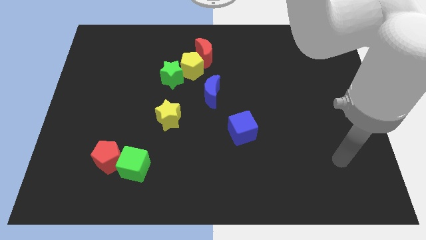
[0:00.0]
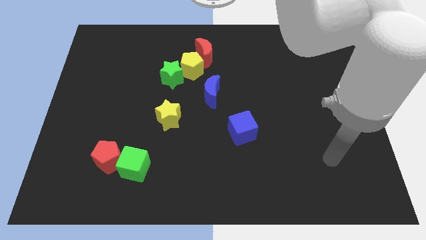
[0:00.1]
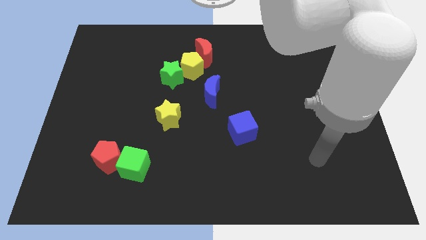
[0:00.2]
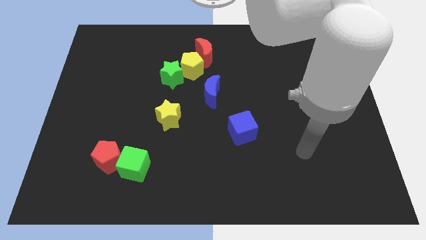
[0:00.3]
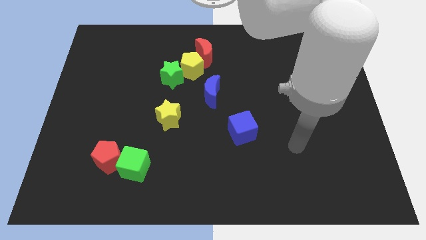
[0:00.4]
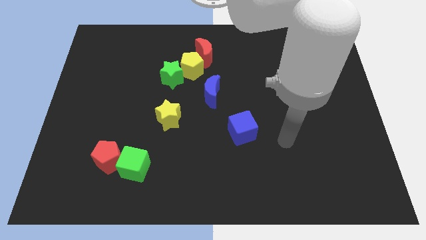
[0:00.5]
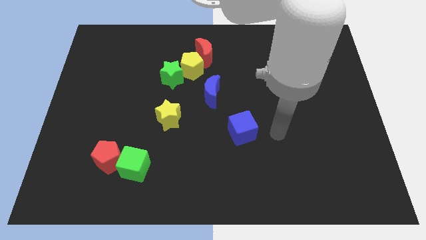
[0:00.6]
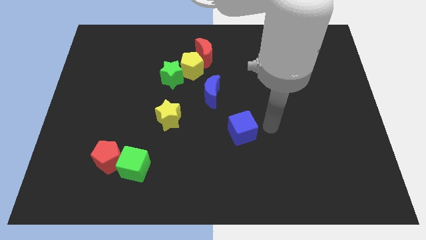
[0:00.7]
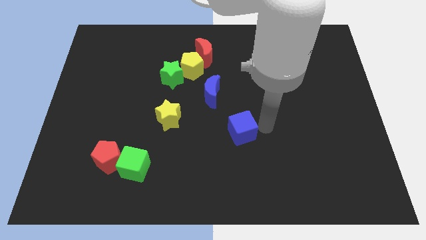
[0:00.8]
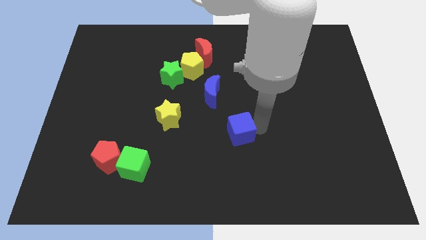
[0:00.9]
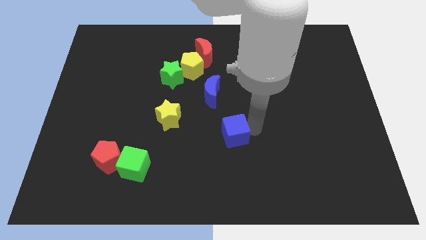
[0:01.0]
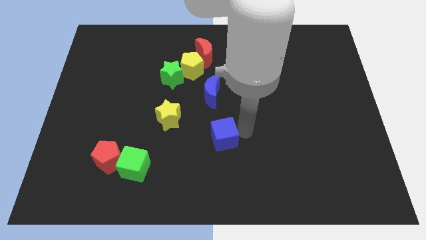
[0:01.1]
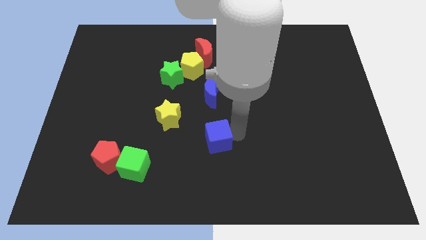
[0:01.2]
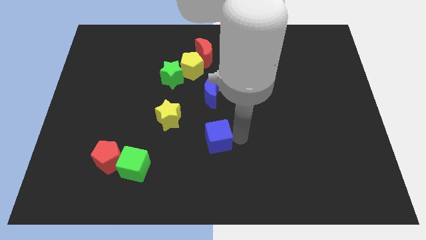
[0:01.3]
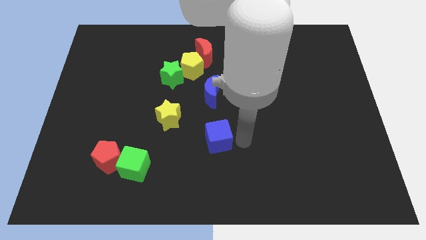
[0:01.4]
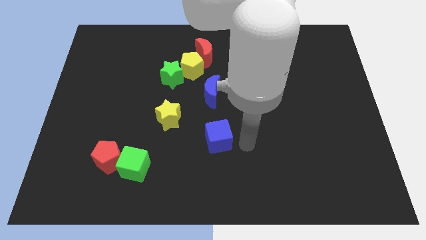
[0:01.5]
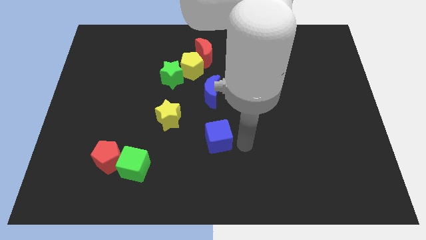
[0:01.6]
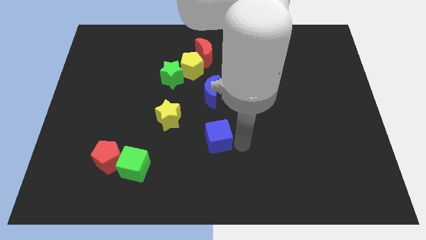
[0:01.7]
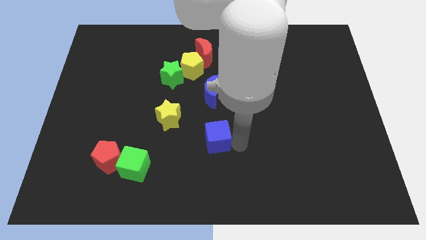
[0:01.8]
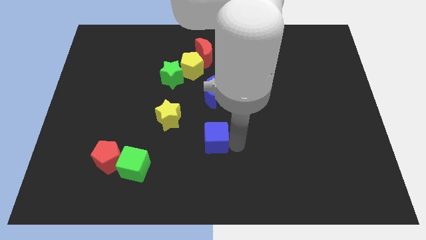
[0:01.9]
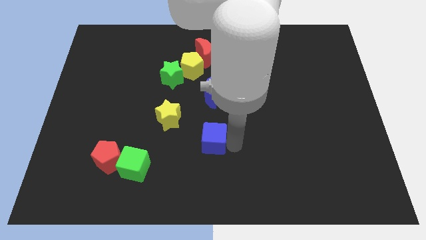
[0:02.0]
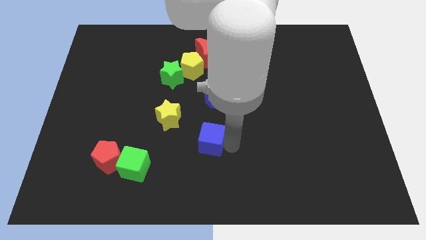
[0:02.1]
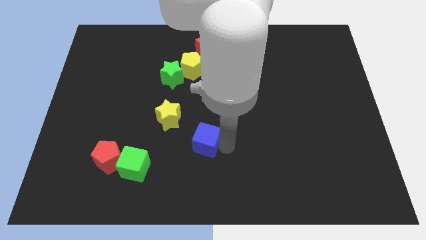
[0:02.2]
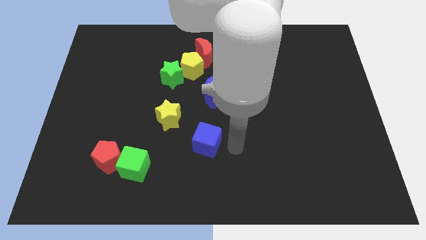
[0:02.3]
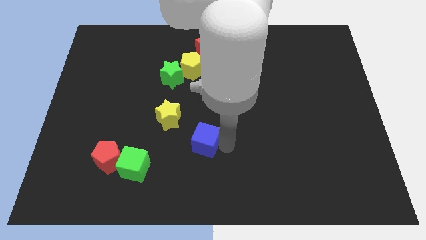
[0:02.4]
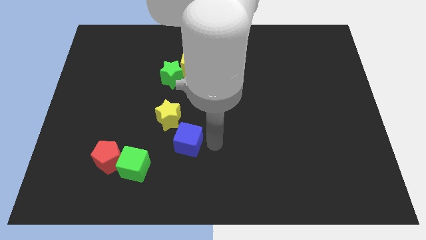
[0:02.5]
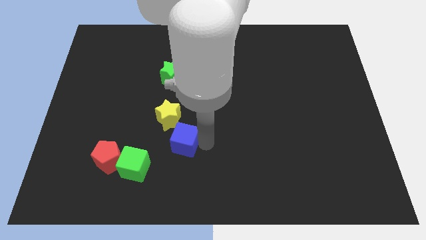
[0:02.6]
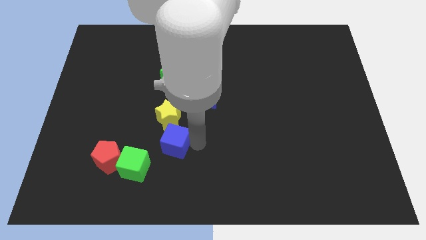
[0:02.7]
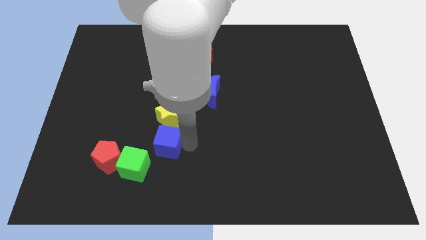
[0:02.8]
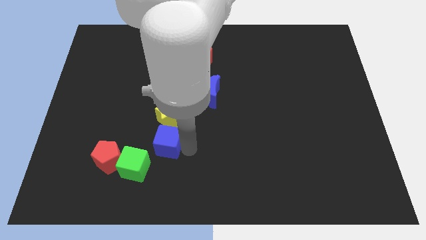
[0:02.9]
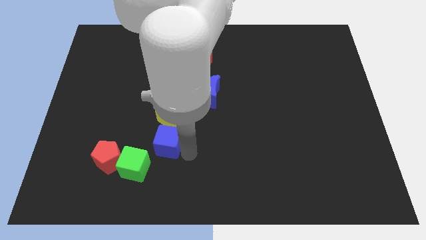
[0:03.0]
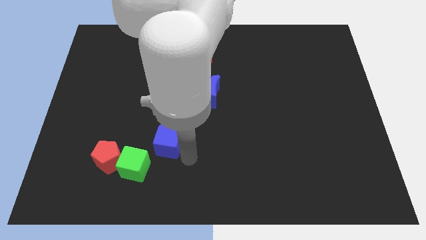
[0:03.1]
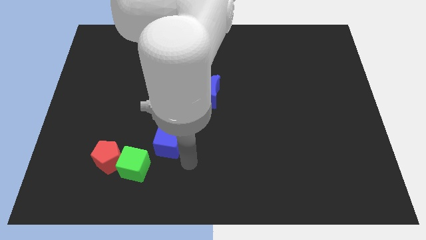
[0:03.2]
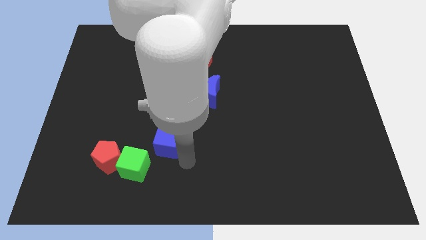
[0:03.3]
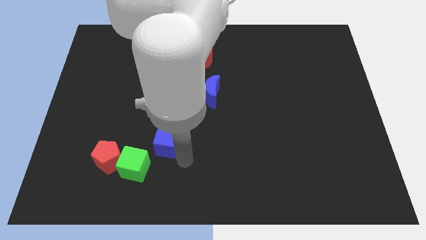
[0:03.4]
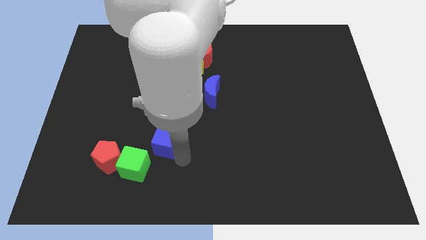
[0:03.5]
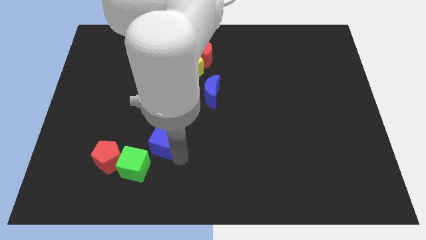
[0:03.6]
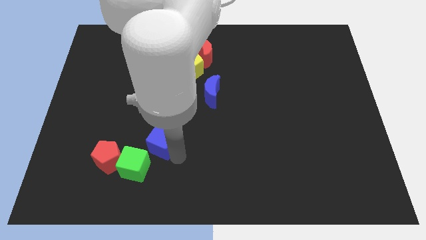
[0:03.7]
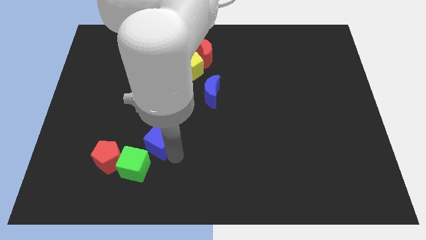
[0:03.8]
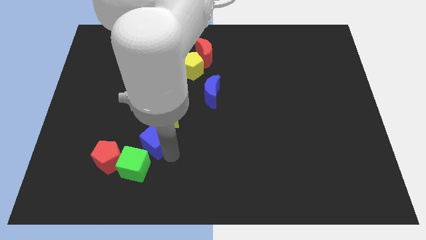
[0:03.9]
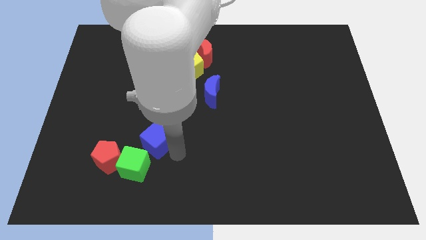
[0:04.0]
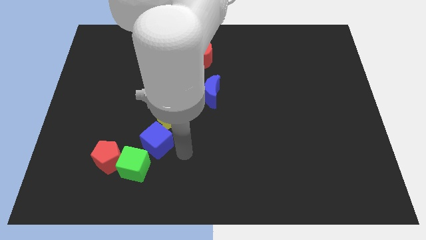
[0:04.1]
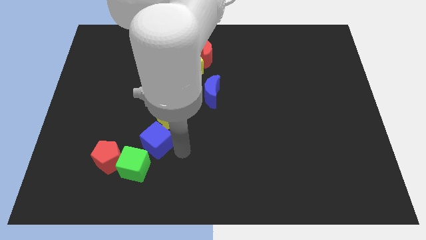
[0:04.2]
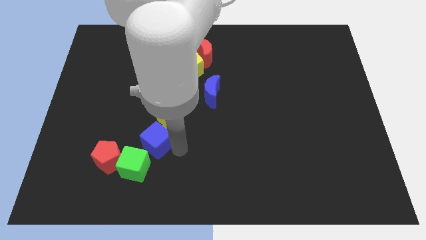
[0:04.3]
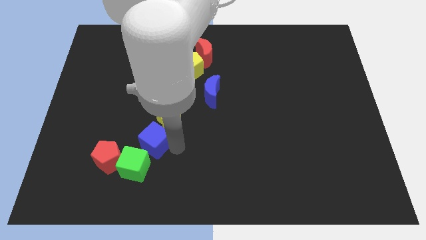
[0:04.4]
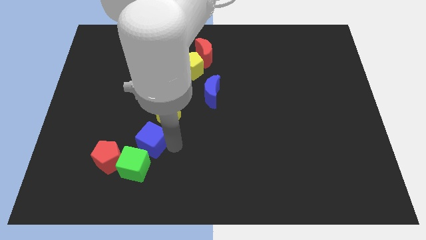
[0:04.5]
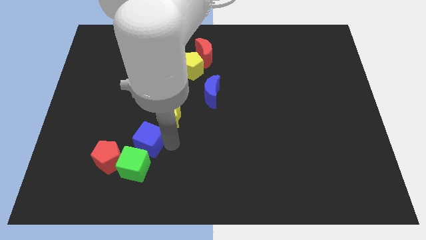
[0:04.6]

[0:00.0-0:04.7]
push the blue cube left

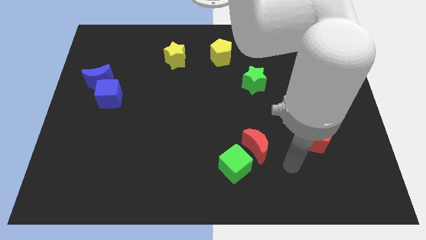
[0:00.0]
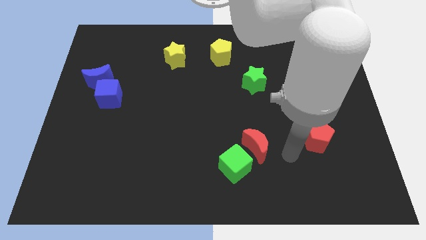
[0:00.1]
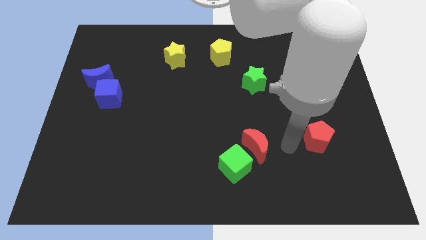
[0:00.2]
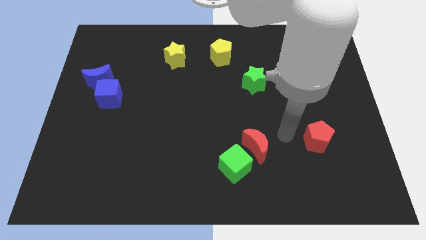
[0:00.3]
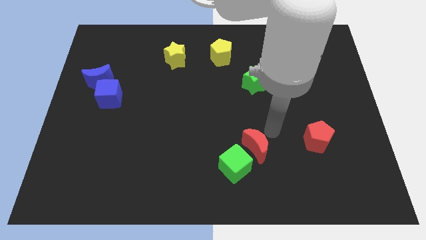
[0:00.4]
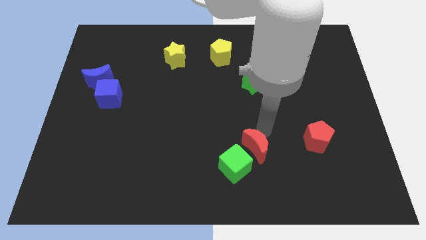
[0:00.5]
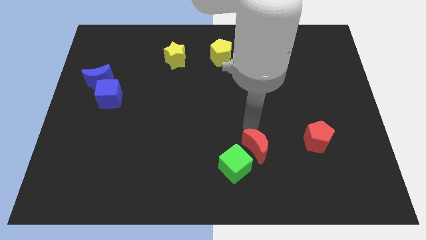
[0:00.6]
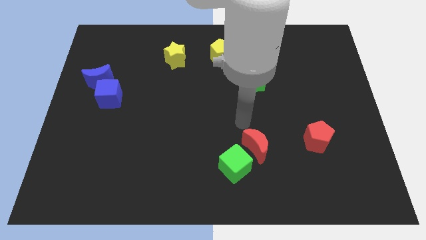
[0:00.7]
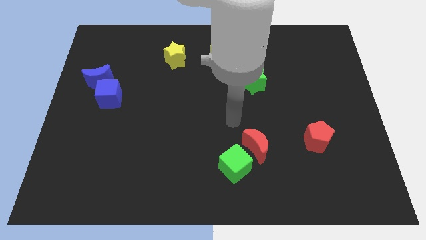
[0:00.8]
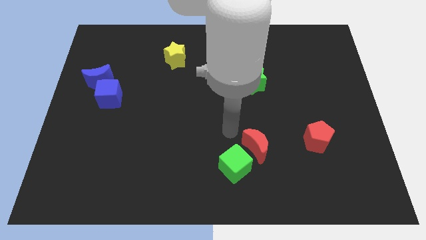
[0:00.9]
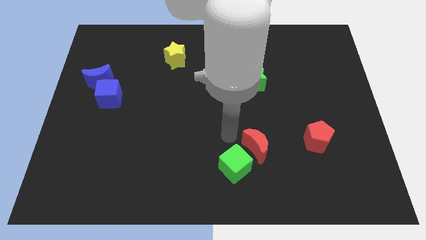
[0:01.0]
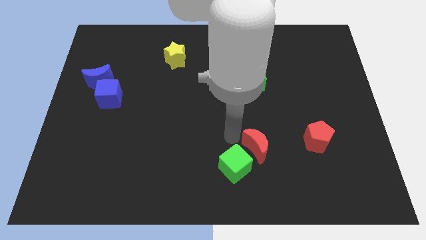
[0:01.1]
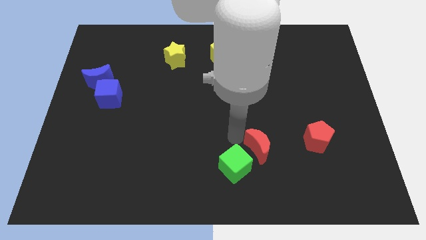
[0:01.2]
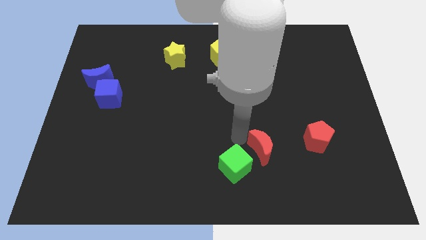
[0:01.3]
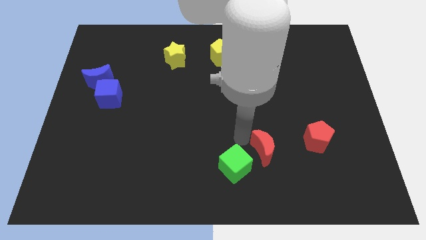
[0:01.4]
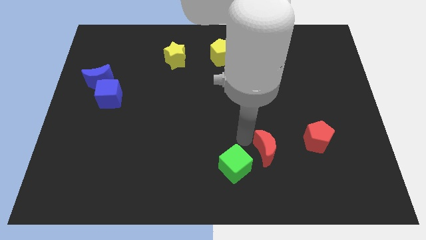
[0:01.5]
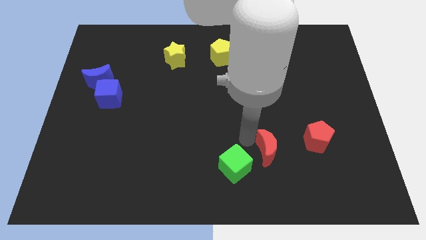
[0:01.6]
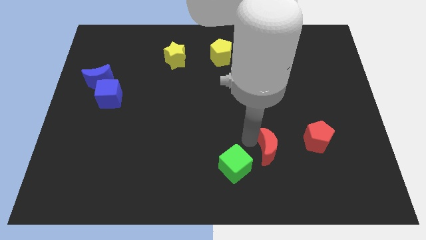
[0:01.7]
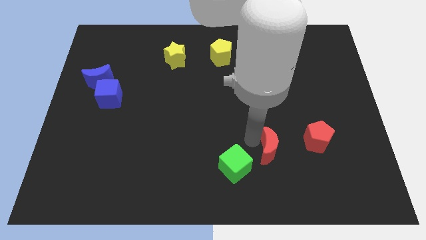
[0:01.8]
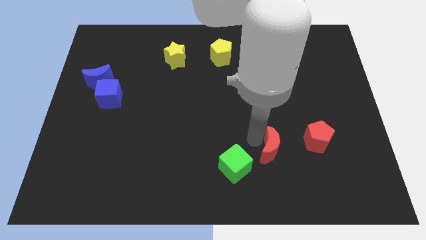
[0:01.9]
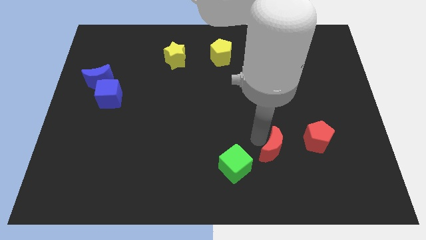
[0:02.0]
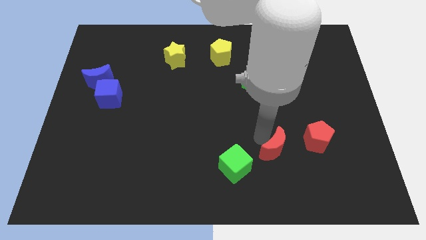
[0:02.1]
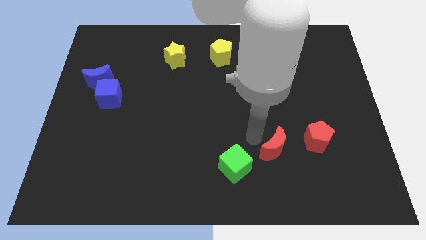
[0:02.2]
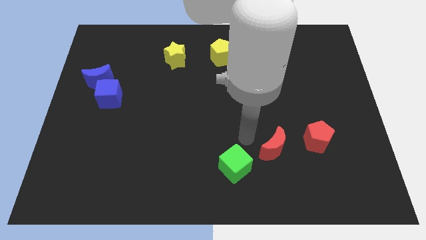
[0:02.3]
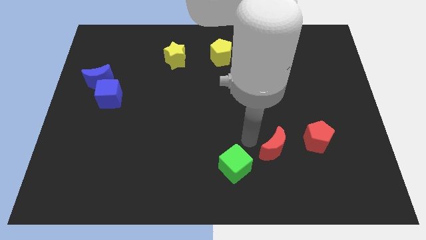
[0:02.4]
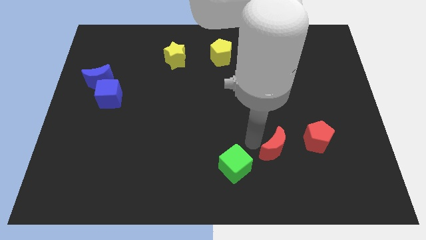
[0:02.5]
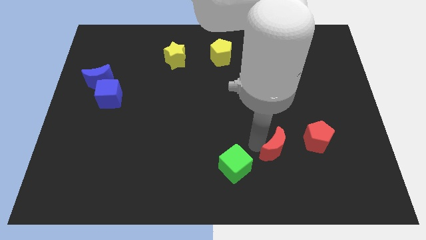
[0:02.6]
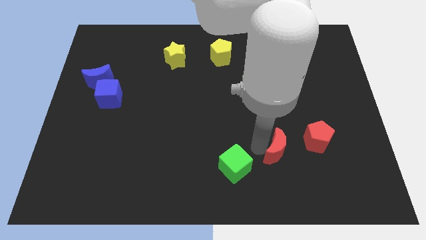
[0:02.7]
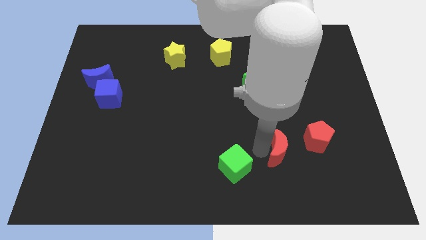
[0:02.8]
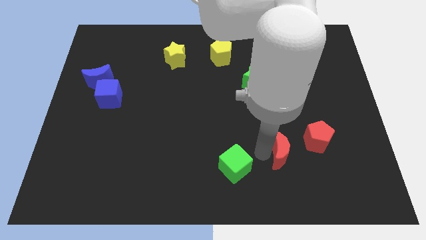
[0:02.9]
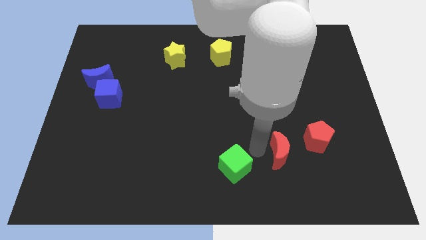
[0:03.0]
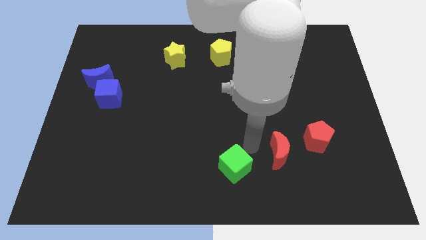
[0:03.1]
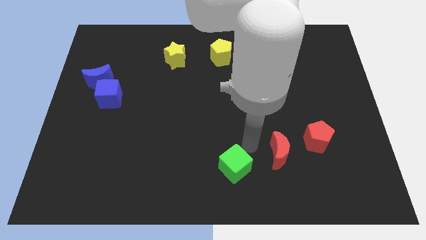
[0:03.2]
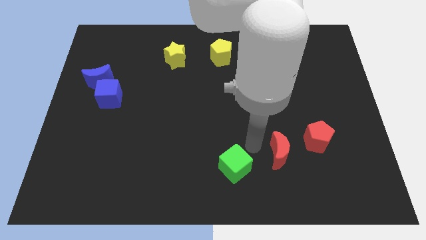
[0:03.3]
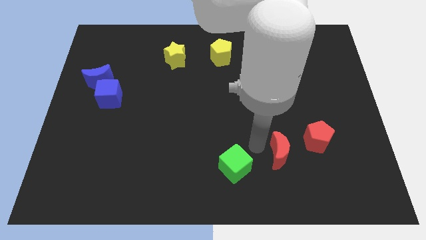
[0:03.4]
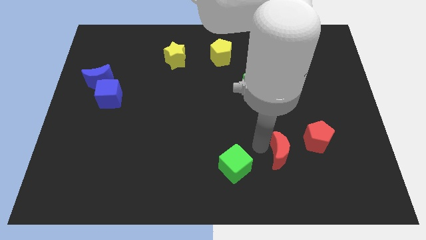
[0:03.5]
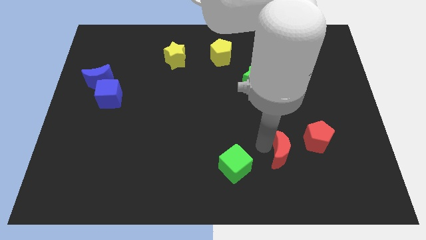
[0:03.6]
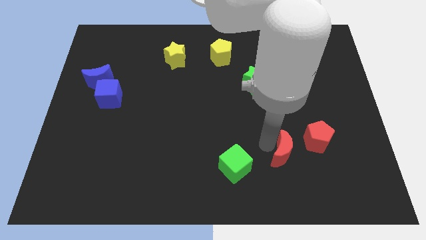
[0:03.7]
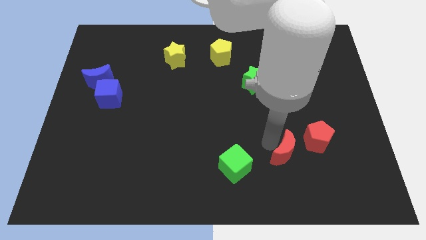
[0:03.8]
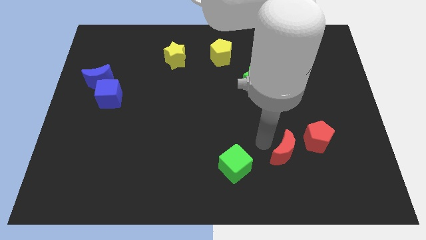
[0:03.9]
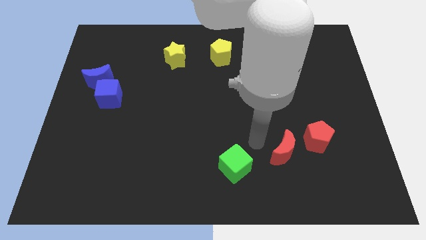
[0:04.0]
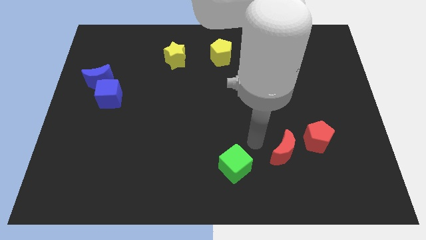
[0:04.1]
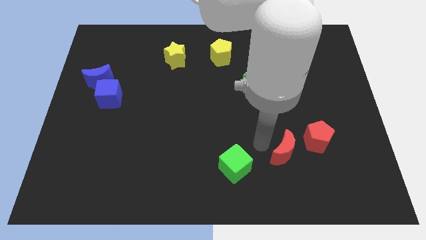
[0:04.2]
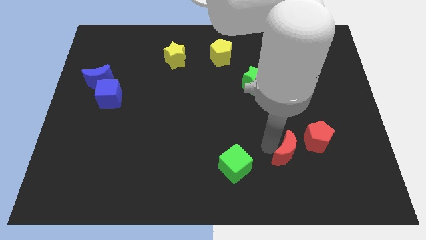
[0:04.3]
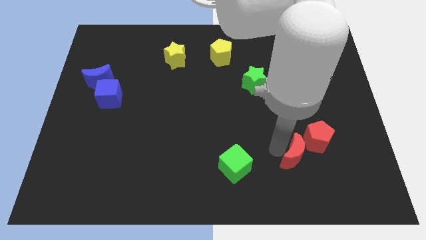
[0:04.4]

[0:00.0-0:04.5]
move the red moon right a little bit
